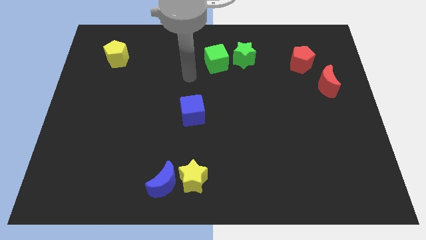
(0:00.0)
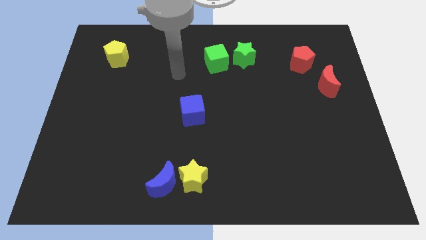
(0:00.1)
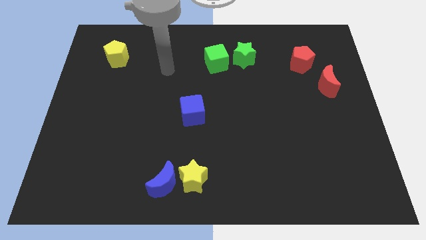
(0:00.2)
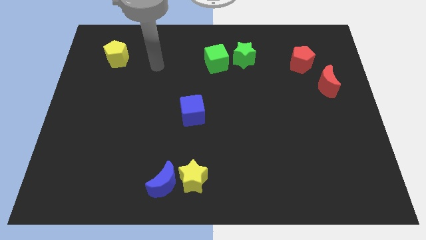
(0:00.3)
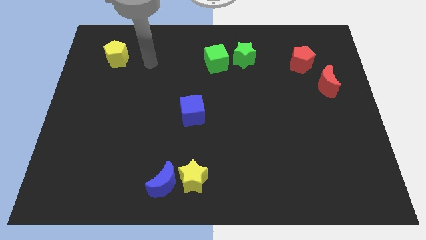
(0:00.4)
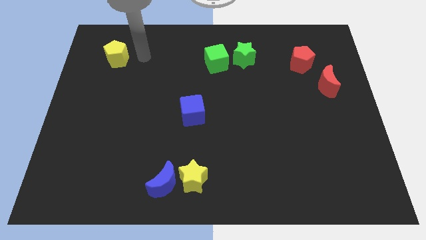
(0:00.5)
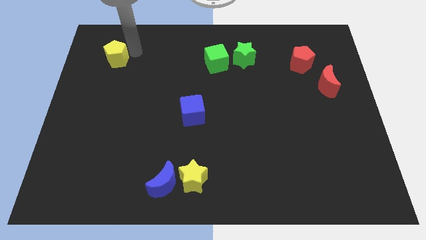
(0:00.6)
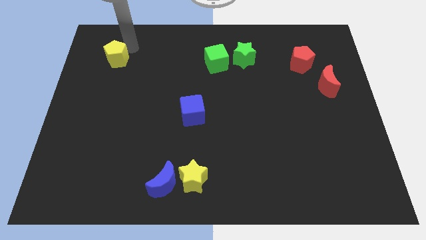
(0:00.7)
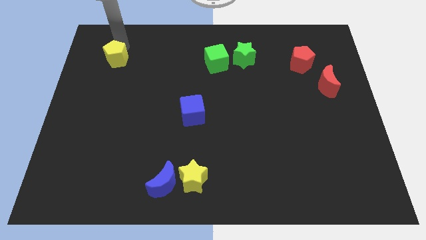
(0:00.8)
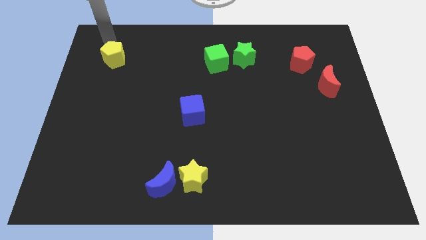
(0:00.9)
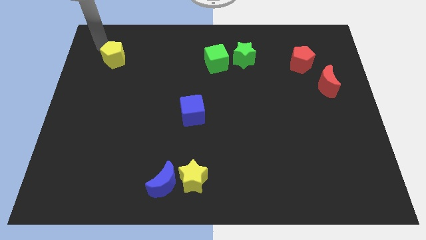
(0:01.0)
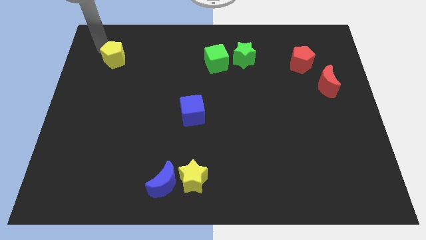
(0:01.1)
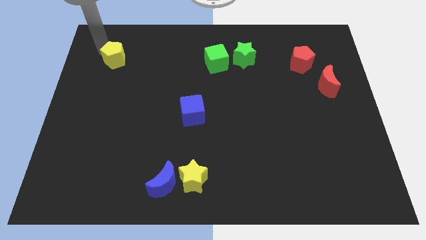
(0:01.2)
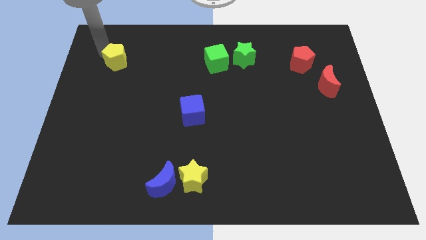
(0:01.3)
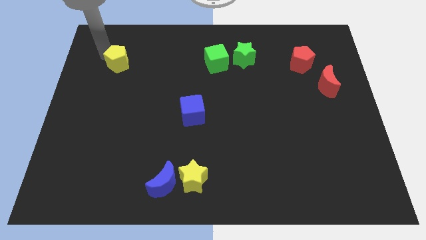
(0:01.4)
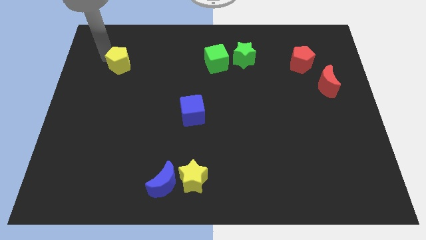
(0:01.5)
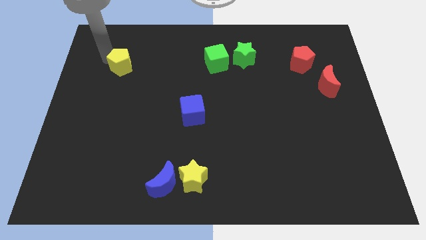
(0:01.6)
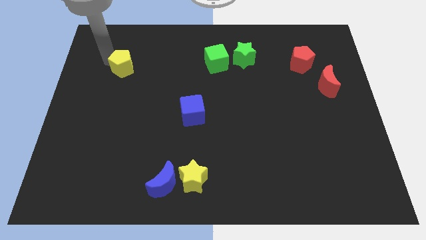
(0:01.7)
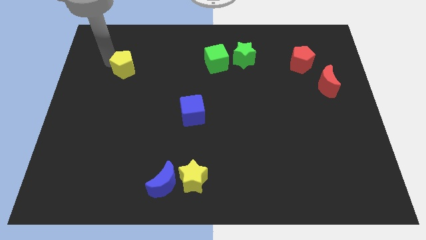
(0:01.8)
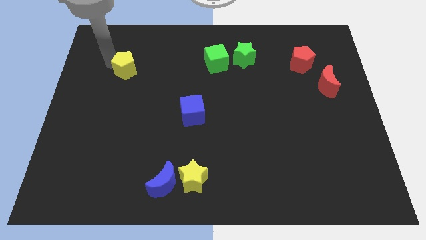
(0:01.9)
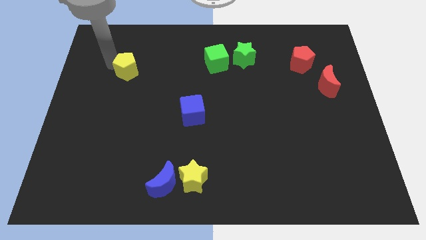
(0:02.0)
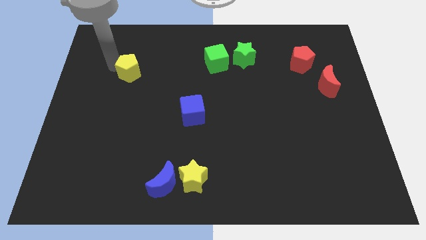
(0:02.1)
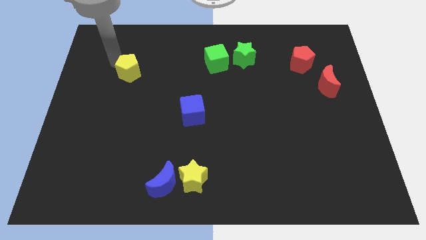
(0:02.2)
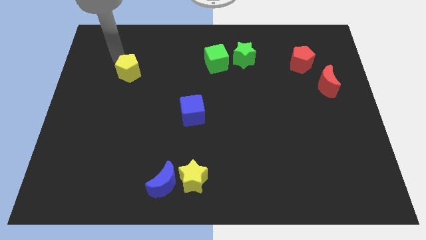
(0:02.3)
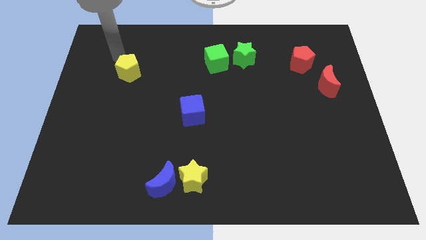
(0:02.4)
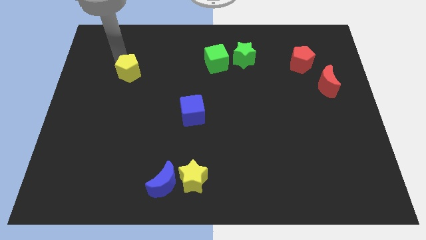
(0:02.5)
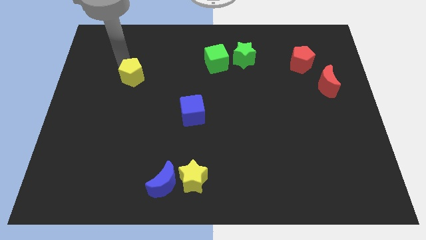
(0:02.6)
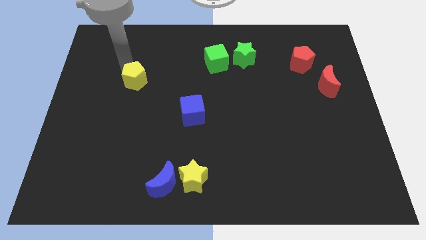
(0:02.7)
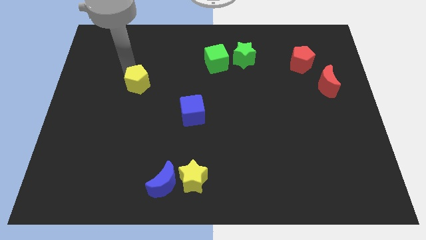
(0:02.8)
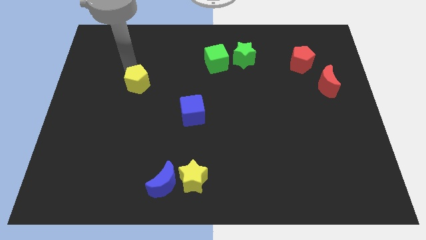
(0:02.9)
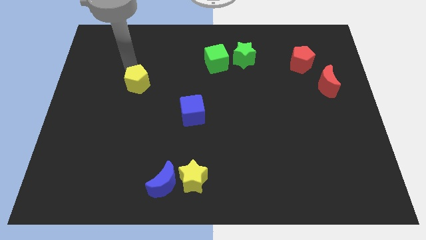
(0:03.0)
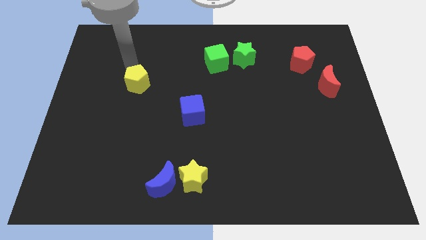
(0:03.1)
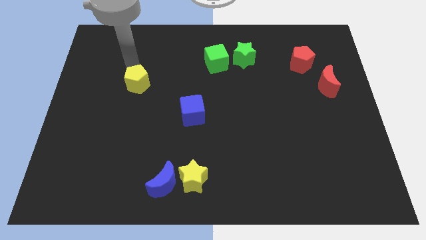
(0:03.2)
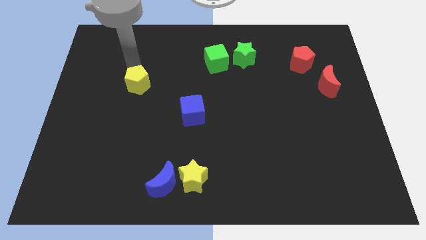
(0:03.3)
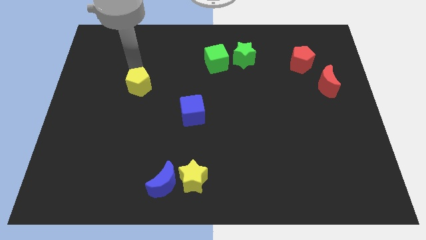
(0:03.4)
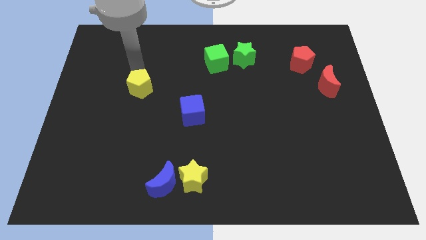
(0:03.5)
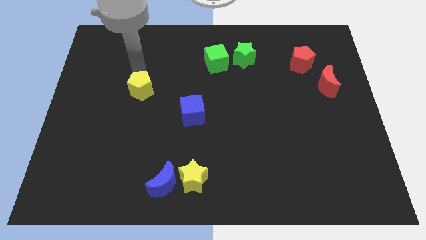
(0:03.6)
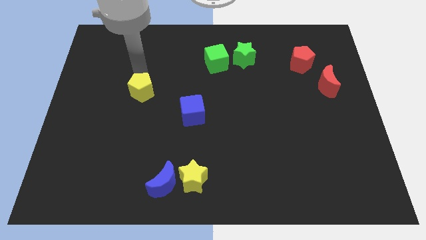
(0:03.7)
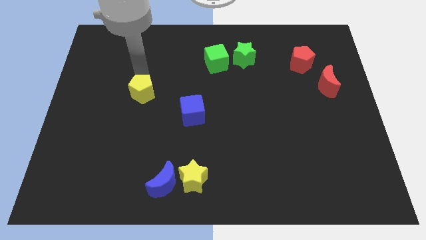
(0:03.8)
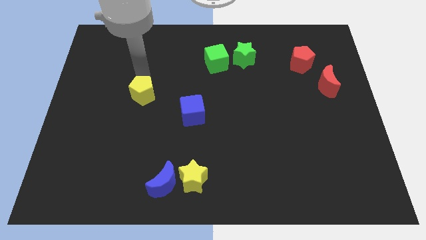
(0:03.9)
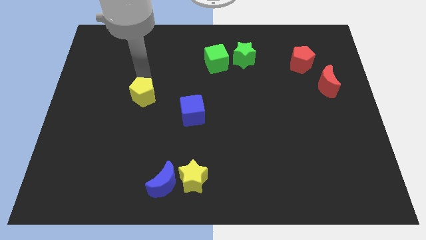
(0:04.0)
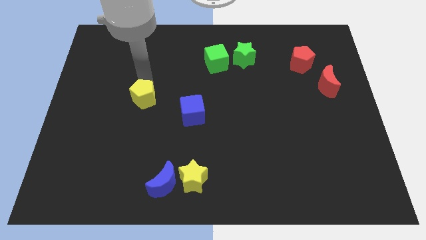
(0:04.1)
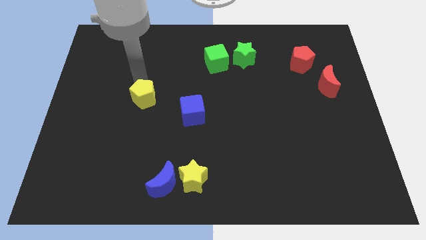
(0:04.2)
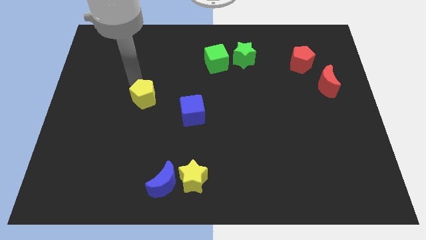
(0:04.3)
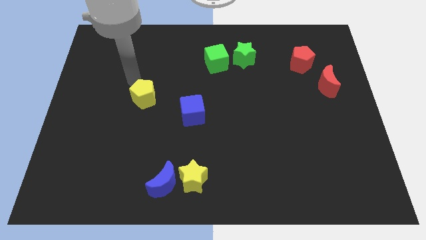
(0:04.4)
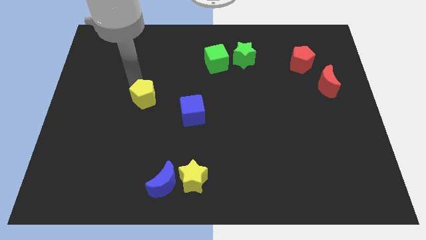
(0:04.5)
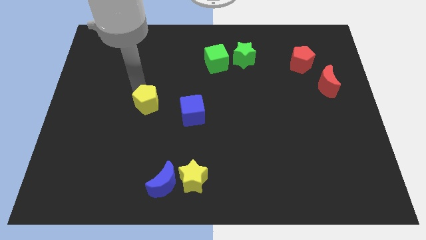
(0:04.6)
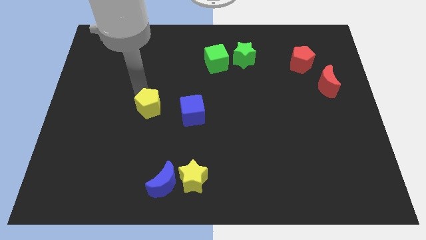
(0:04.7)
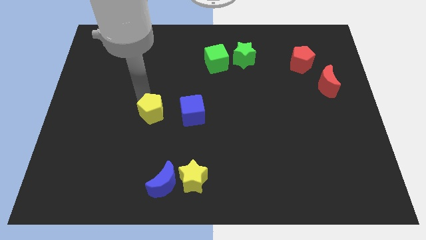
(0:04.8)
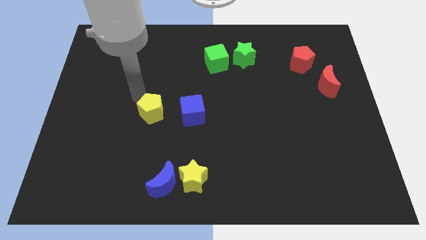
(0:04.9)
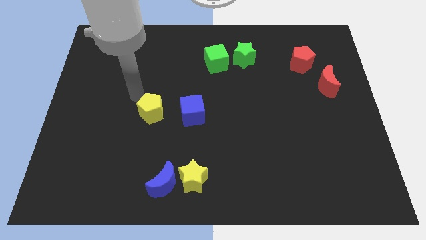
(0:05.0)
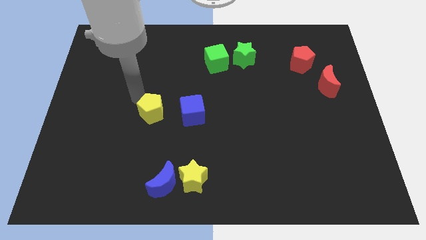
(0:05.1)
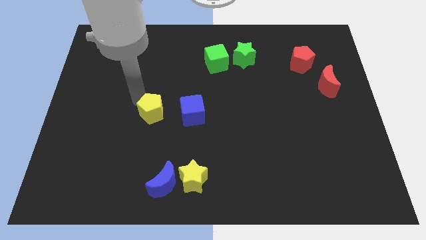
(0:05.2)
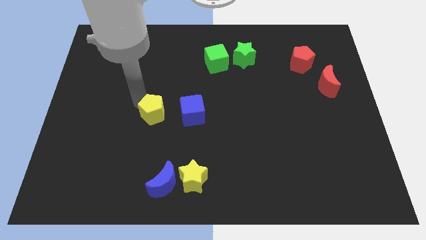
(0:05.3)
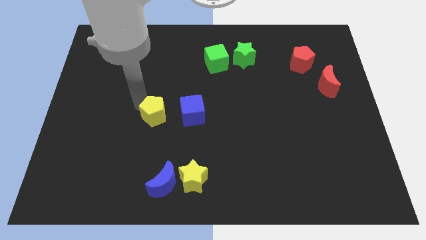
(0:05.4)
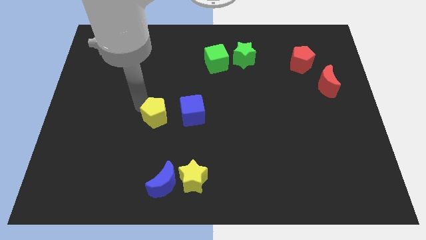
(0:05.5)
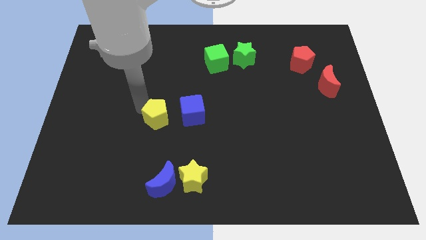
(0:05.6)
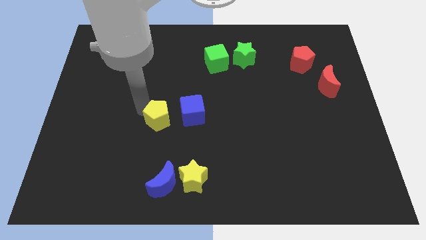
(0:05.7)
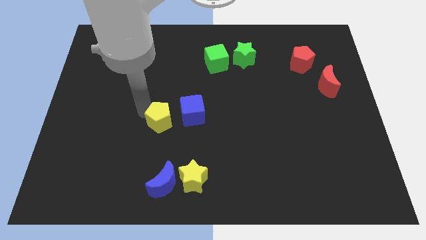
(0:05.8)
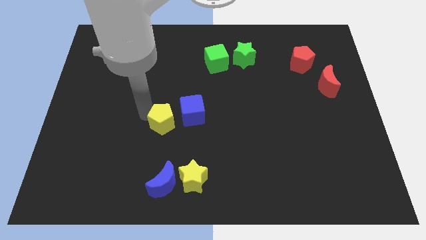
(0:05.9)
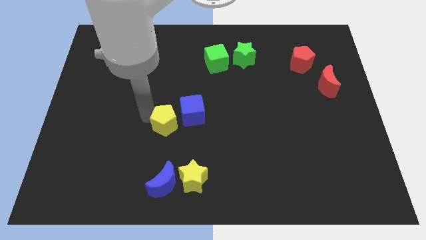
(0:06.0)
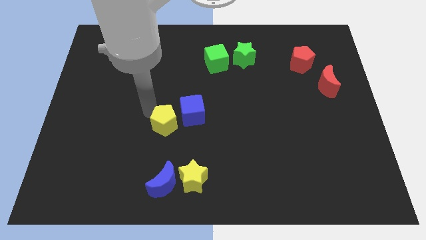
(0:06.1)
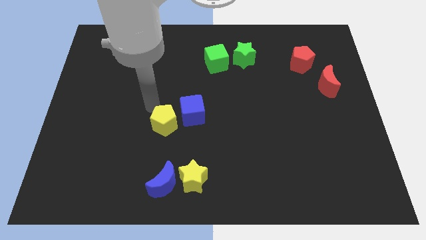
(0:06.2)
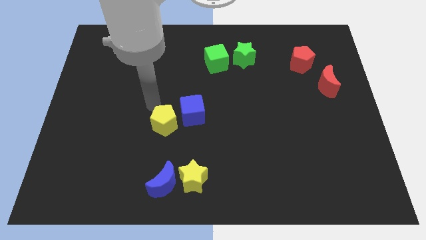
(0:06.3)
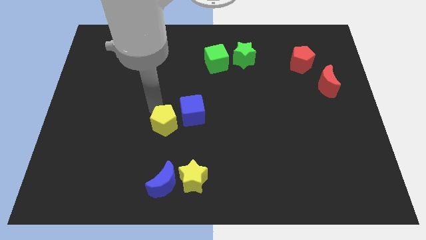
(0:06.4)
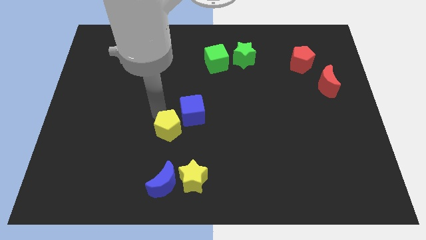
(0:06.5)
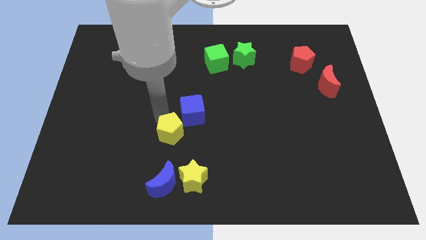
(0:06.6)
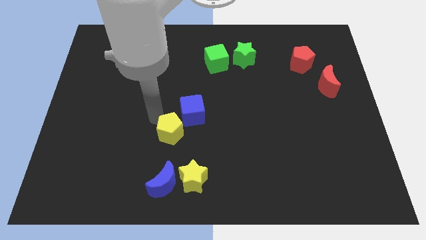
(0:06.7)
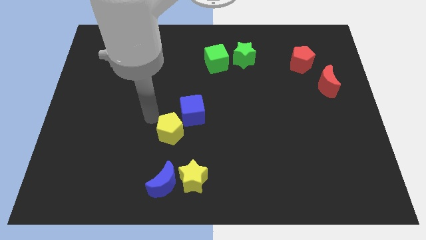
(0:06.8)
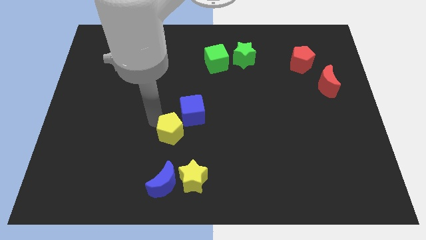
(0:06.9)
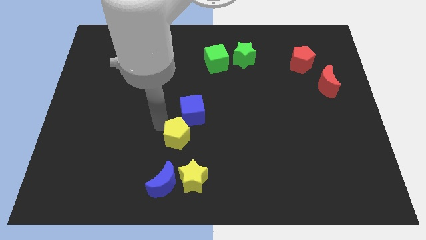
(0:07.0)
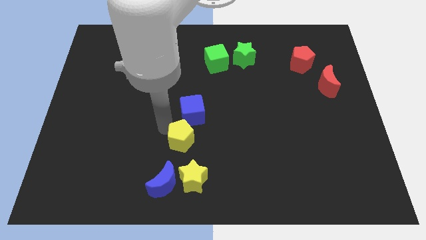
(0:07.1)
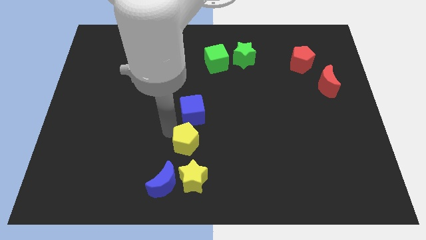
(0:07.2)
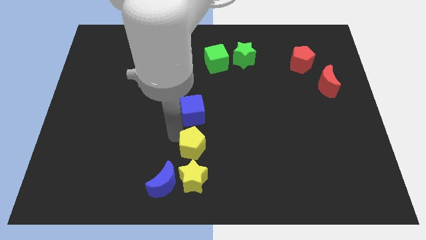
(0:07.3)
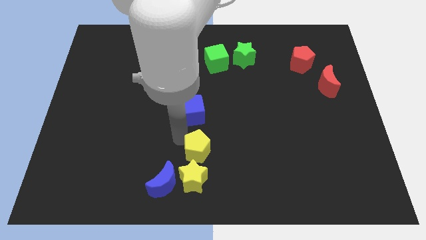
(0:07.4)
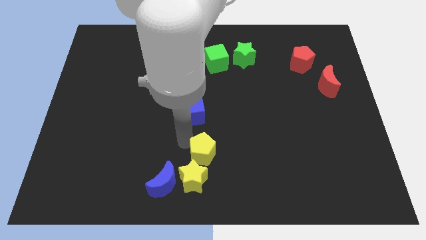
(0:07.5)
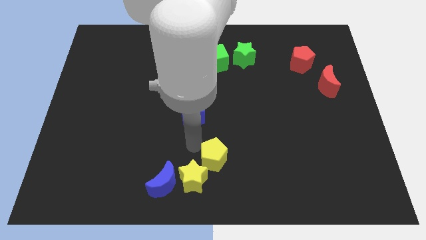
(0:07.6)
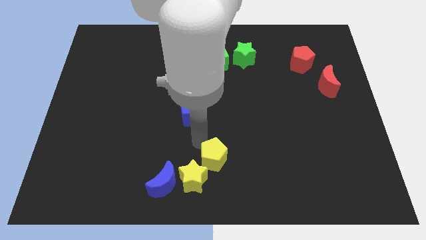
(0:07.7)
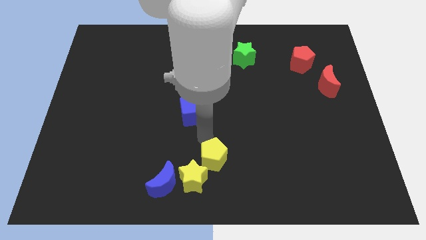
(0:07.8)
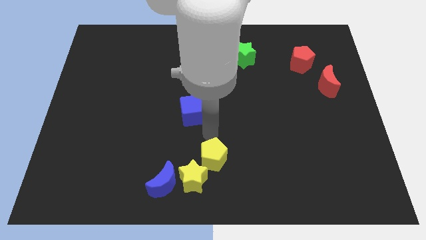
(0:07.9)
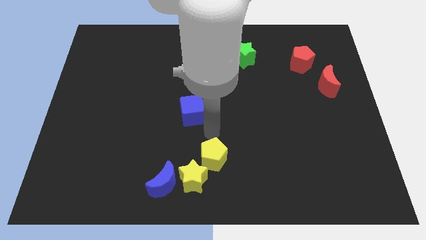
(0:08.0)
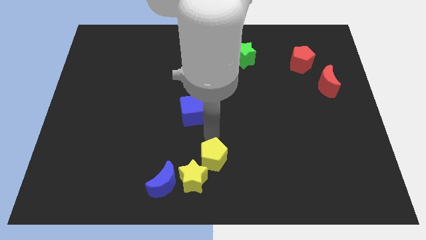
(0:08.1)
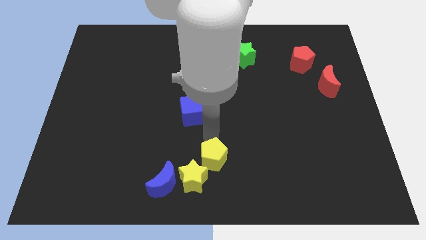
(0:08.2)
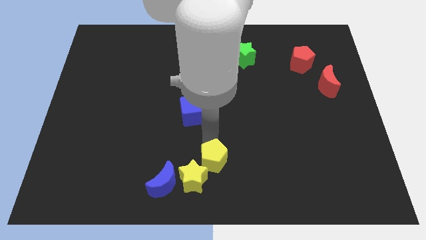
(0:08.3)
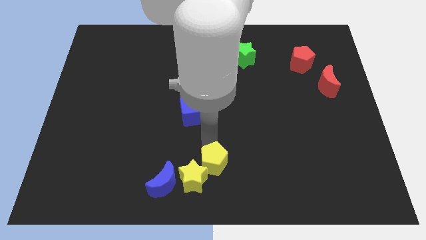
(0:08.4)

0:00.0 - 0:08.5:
put the yellow pentagon just right of the blue moon
